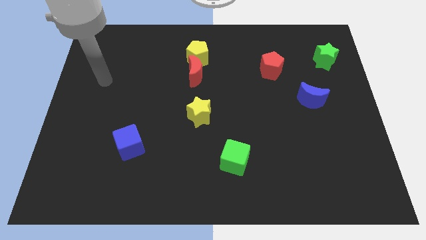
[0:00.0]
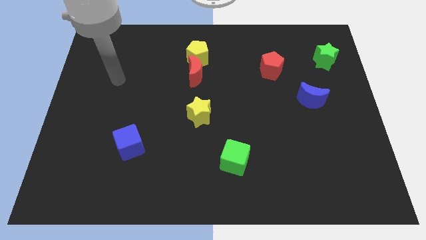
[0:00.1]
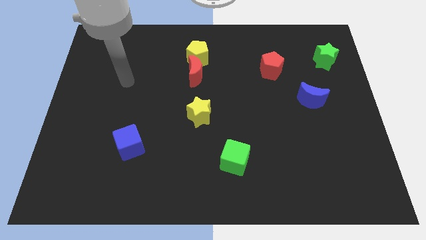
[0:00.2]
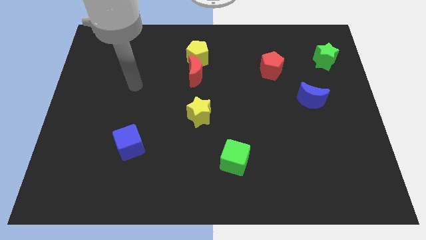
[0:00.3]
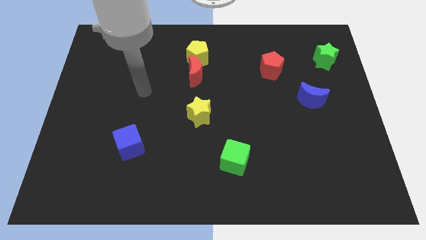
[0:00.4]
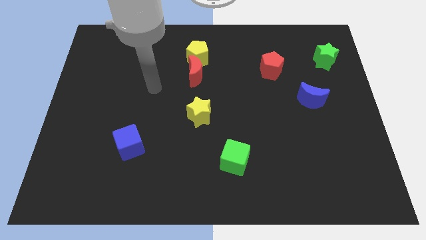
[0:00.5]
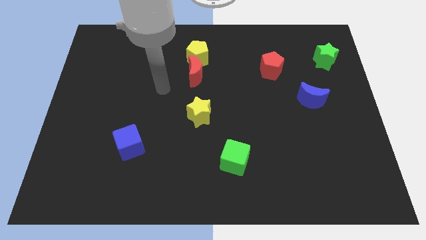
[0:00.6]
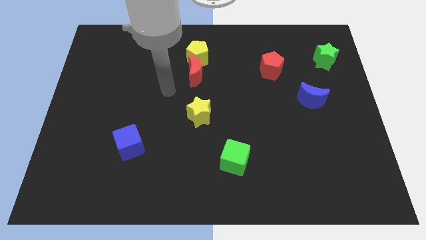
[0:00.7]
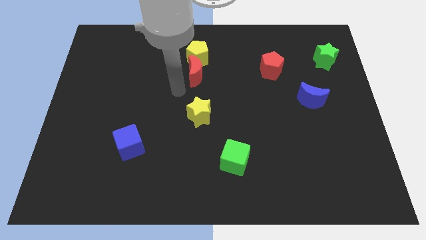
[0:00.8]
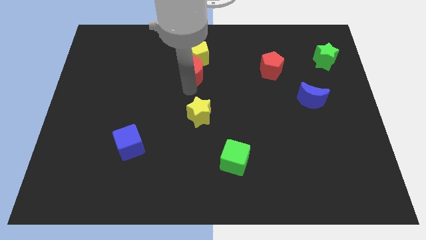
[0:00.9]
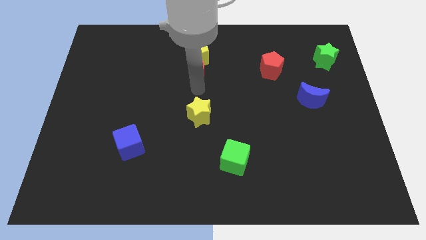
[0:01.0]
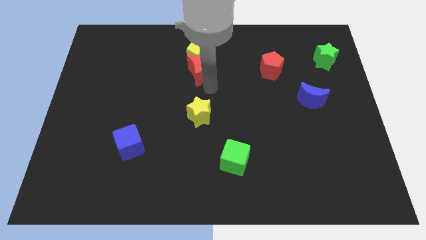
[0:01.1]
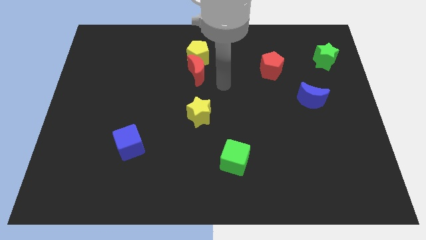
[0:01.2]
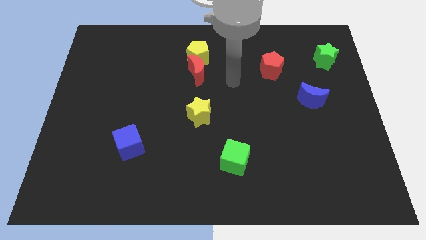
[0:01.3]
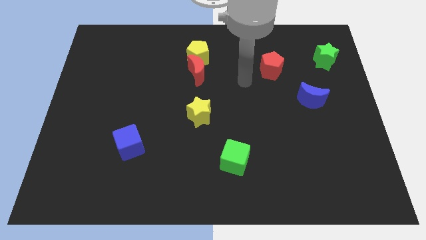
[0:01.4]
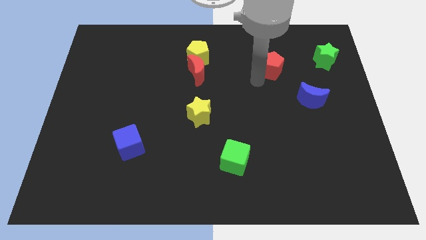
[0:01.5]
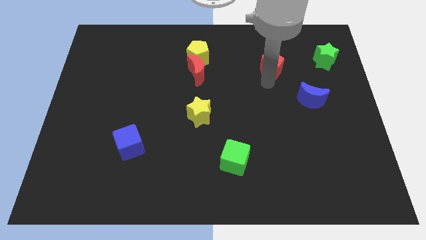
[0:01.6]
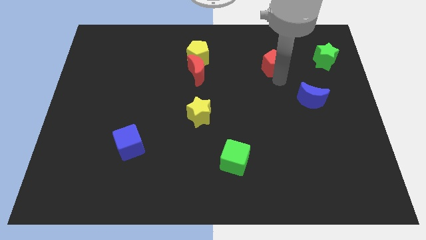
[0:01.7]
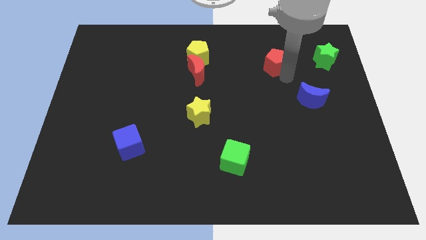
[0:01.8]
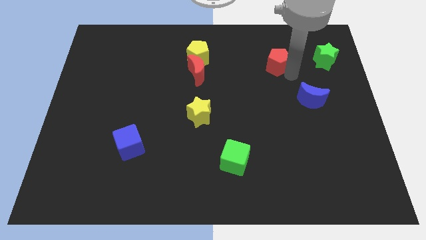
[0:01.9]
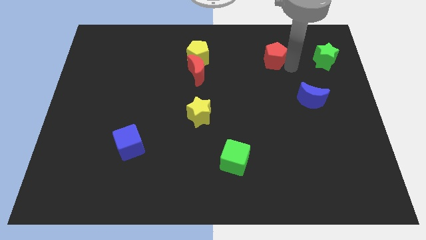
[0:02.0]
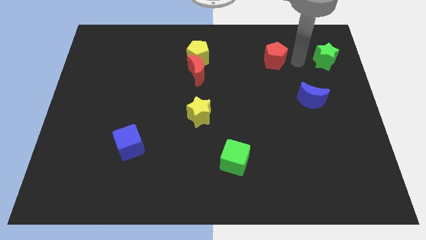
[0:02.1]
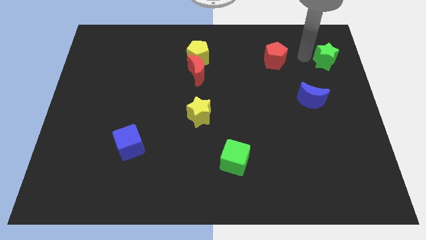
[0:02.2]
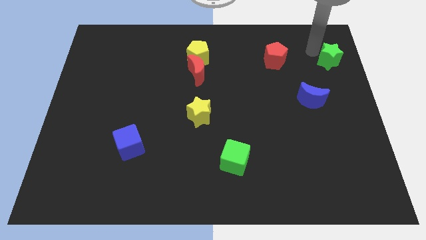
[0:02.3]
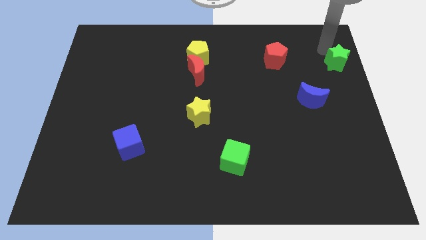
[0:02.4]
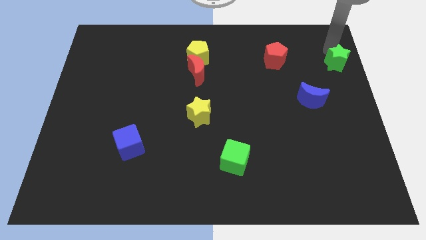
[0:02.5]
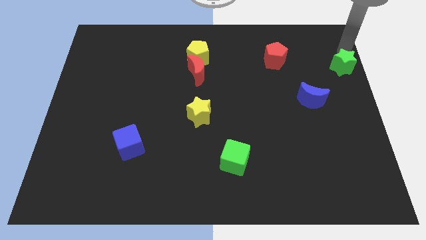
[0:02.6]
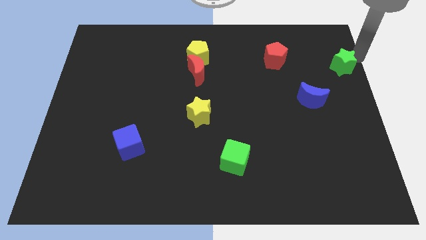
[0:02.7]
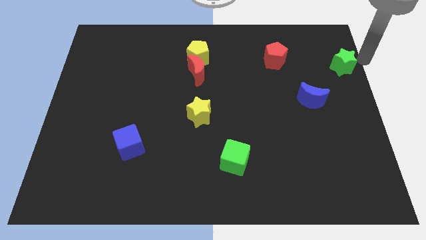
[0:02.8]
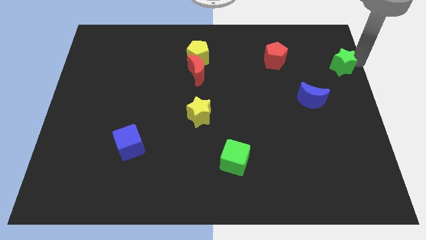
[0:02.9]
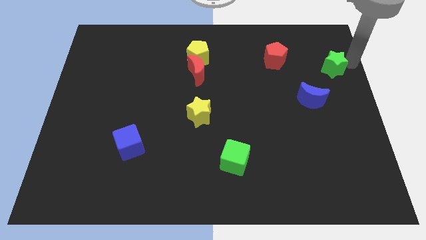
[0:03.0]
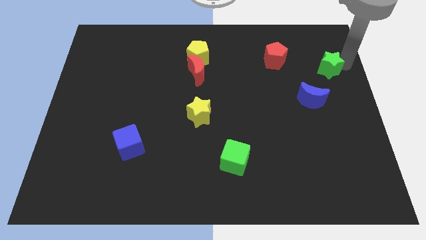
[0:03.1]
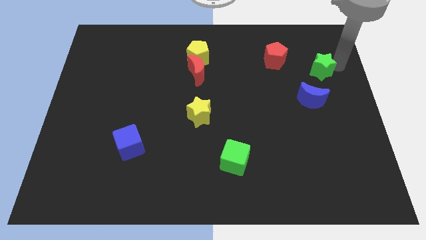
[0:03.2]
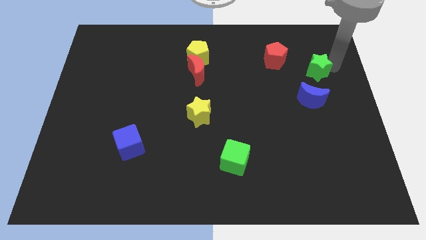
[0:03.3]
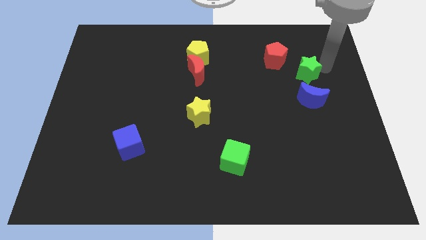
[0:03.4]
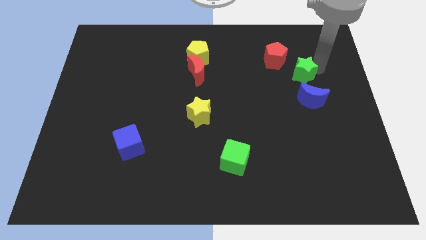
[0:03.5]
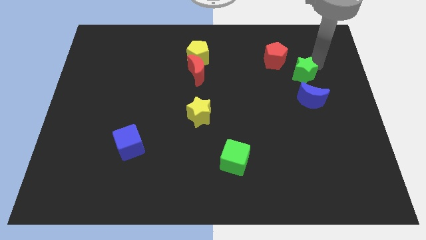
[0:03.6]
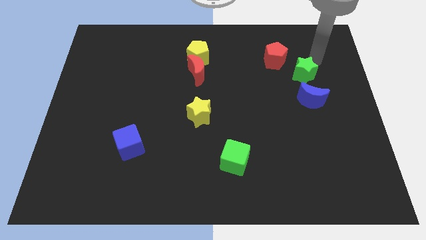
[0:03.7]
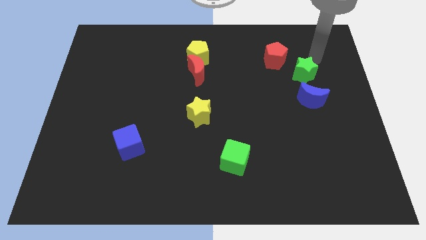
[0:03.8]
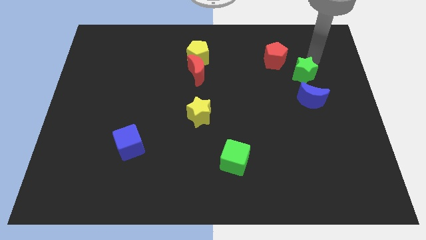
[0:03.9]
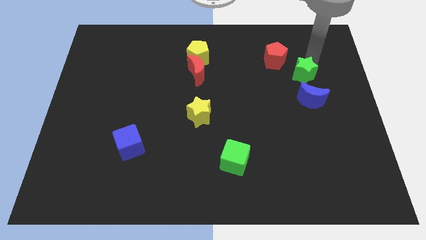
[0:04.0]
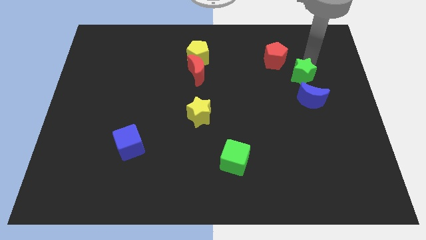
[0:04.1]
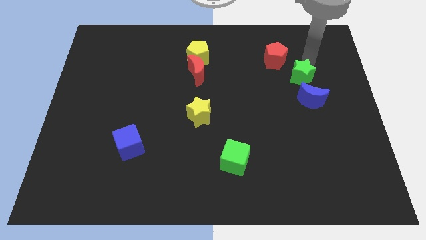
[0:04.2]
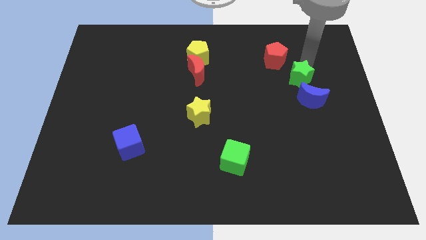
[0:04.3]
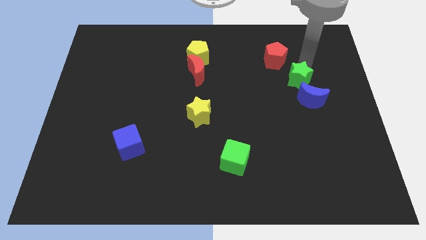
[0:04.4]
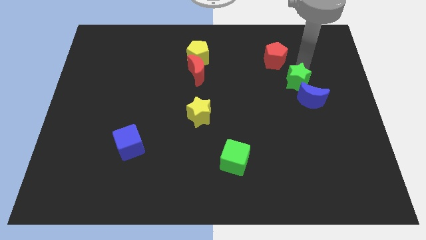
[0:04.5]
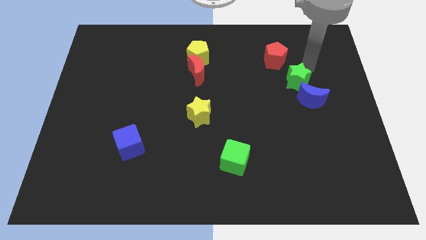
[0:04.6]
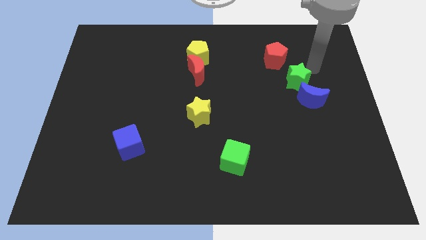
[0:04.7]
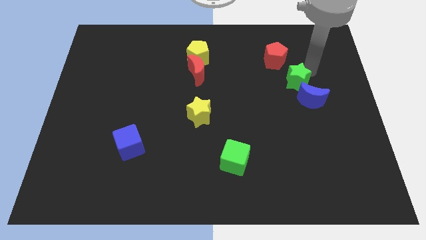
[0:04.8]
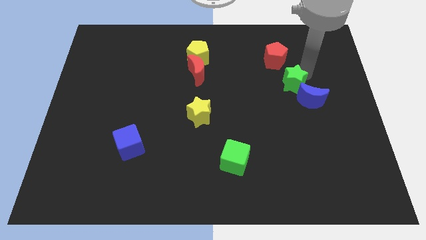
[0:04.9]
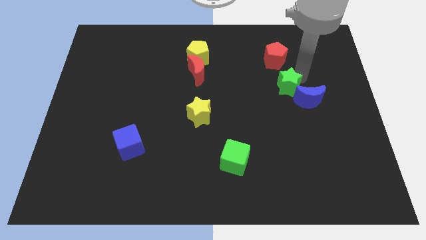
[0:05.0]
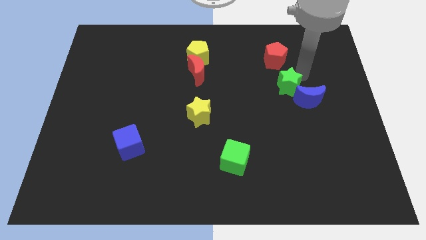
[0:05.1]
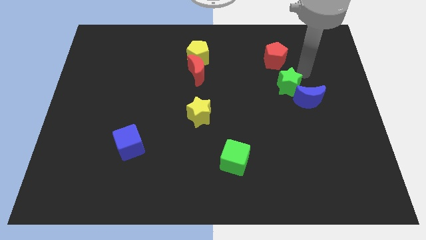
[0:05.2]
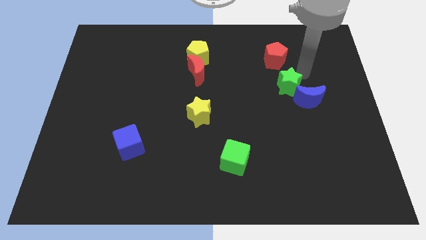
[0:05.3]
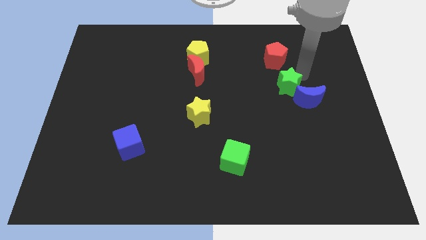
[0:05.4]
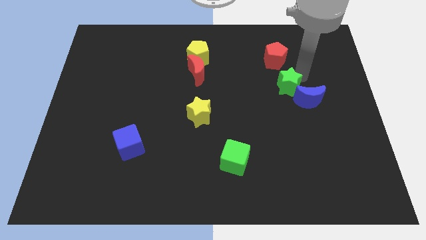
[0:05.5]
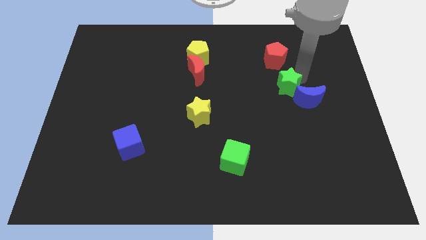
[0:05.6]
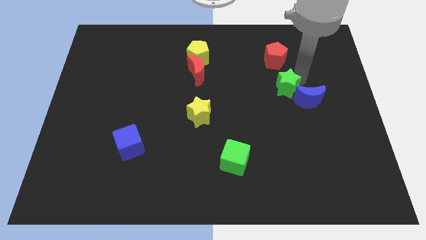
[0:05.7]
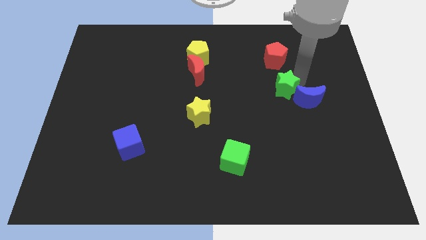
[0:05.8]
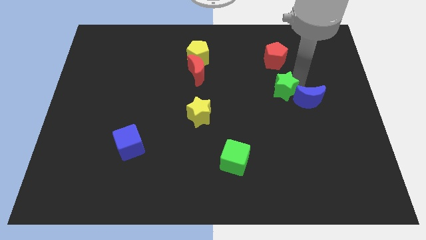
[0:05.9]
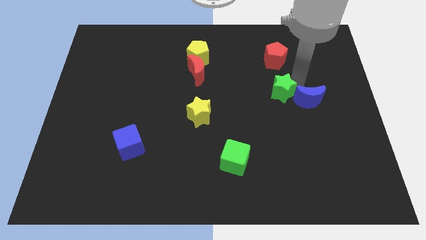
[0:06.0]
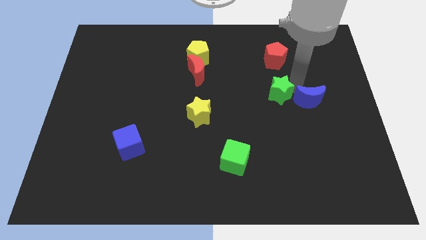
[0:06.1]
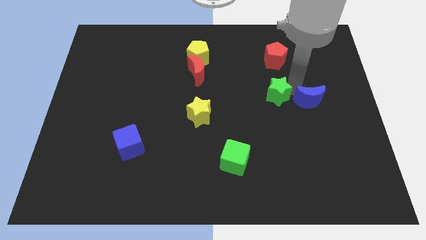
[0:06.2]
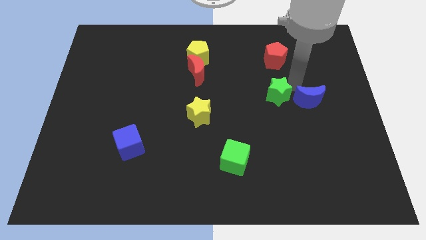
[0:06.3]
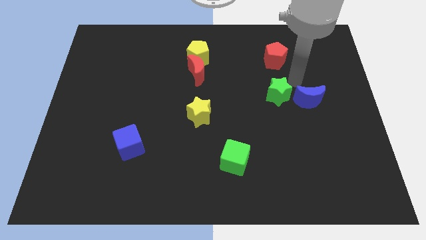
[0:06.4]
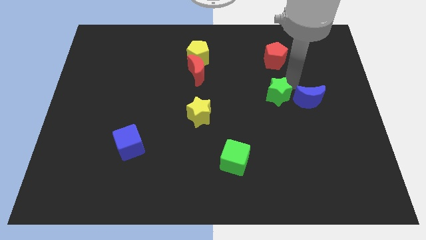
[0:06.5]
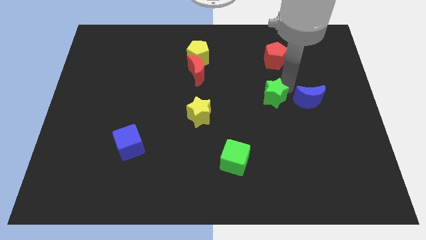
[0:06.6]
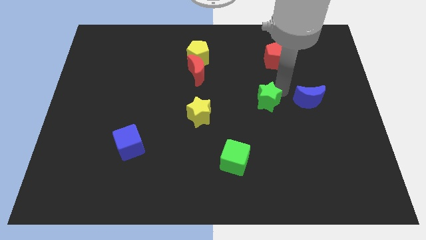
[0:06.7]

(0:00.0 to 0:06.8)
slide the green star down and to the left

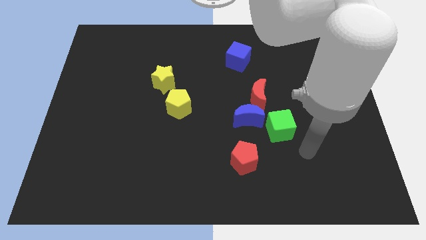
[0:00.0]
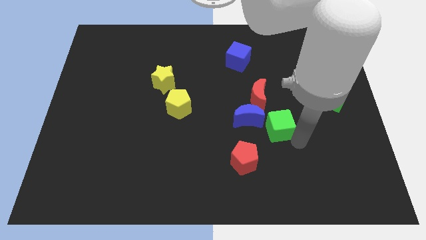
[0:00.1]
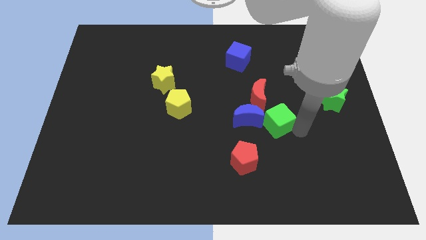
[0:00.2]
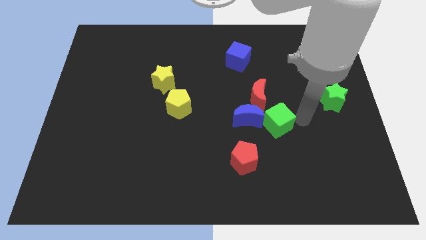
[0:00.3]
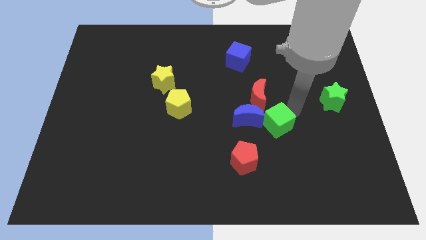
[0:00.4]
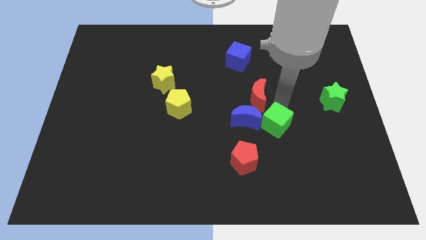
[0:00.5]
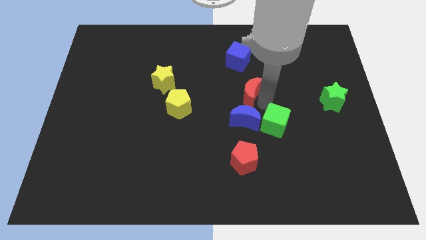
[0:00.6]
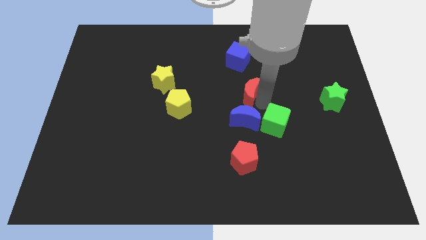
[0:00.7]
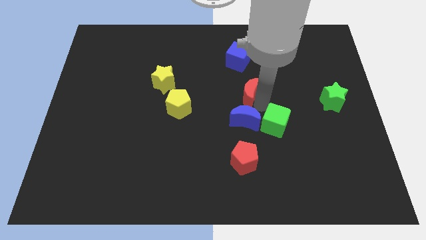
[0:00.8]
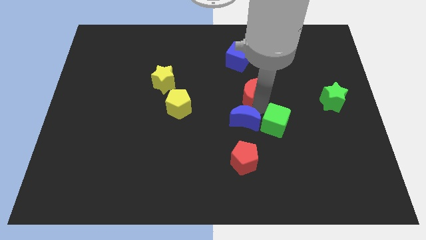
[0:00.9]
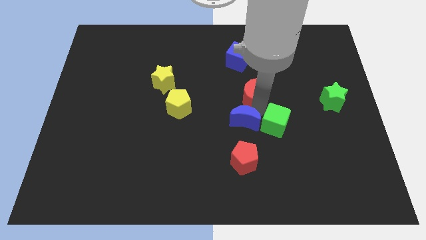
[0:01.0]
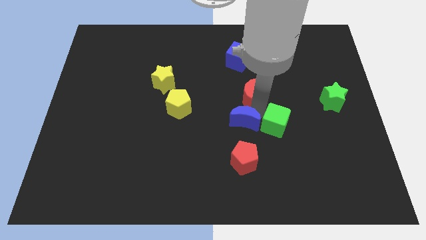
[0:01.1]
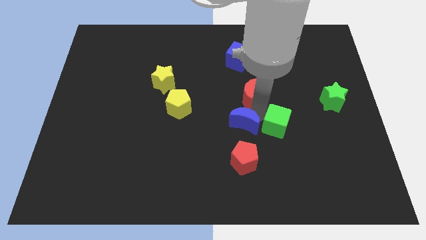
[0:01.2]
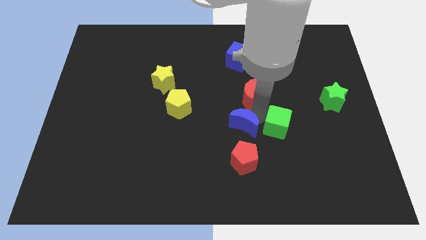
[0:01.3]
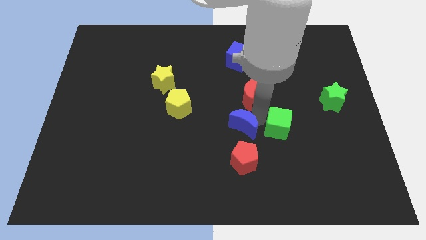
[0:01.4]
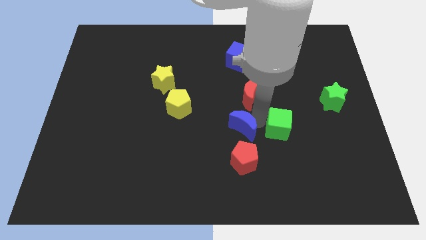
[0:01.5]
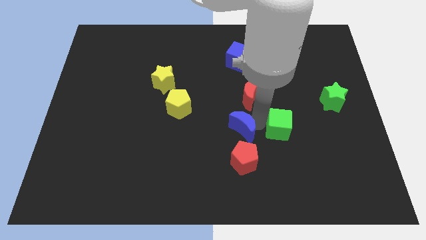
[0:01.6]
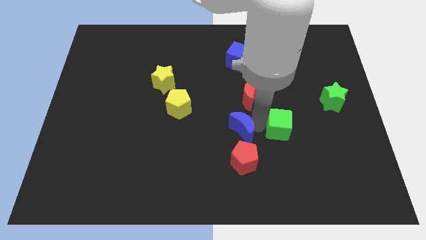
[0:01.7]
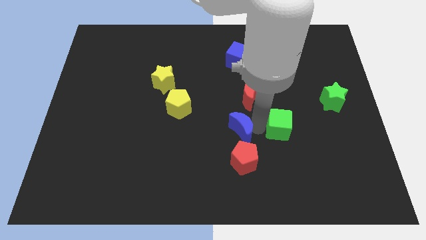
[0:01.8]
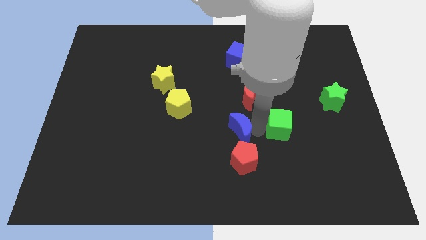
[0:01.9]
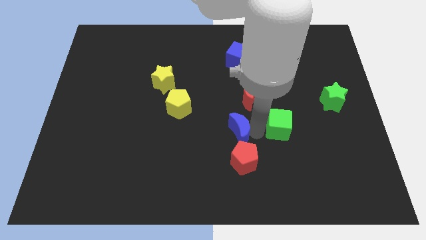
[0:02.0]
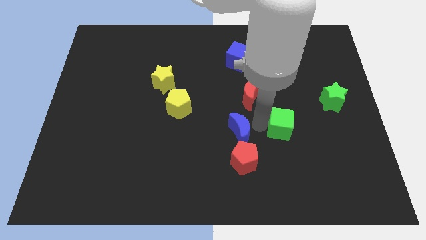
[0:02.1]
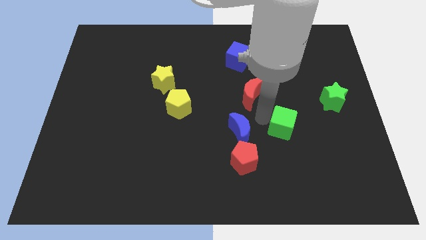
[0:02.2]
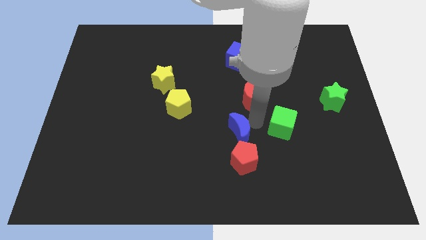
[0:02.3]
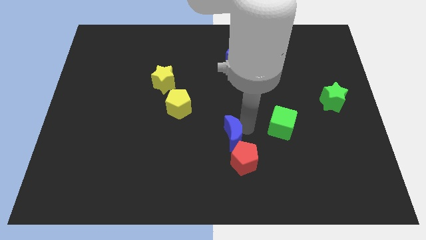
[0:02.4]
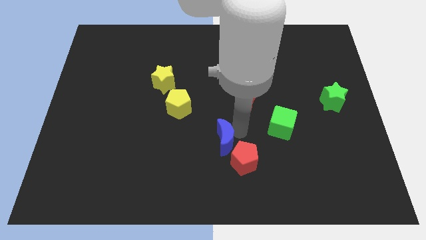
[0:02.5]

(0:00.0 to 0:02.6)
slightly move the blue moon downwards and then left
